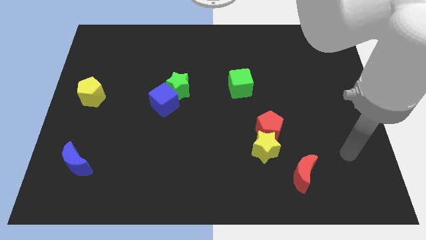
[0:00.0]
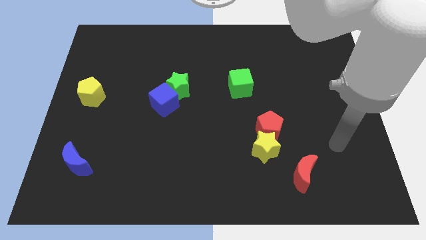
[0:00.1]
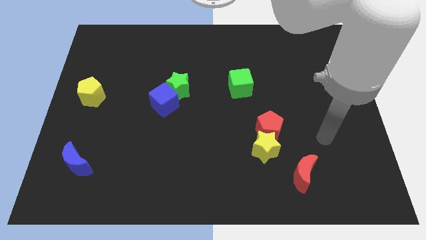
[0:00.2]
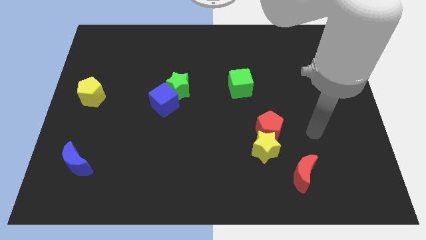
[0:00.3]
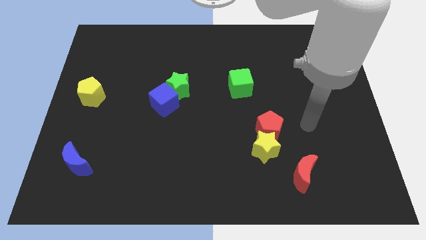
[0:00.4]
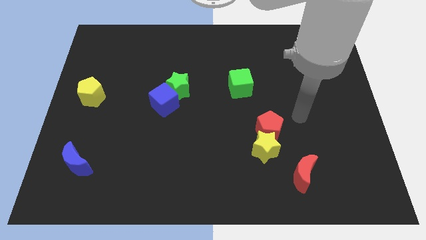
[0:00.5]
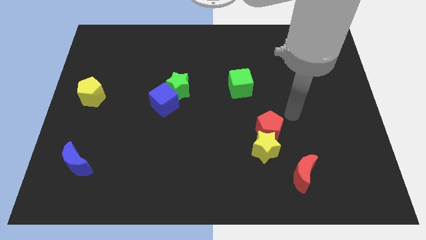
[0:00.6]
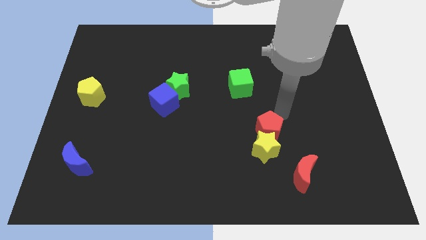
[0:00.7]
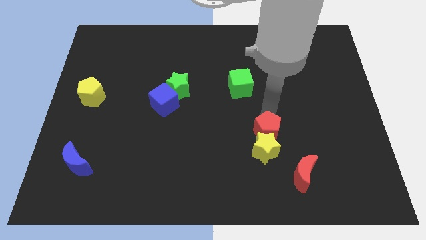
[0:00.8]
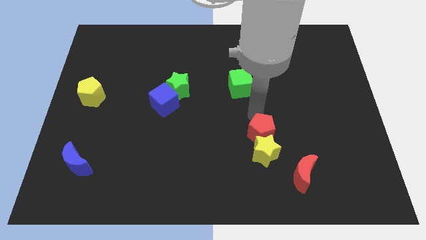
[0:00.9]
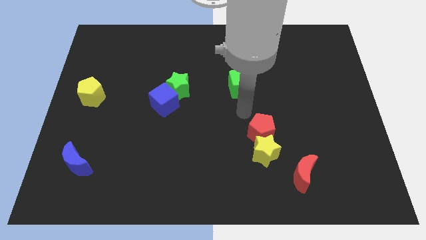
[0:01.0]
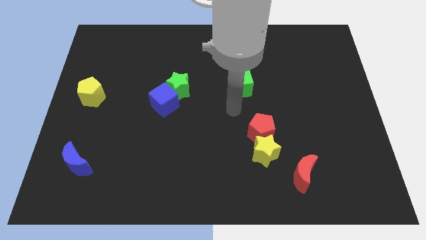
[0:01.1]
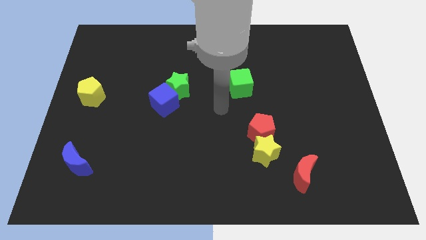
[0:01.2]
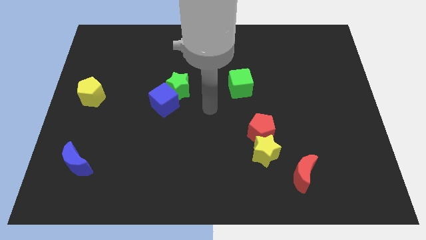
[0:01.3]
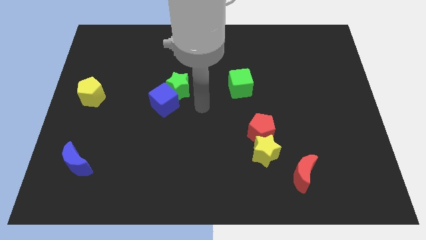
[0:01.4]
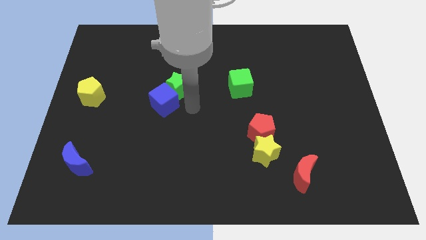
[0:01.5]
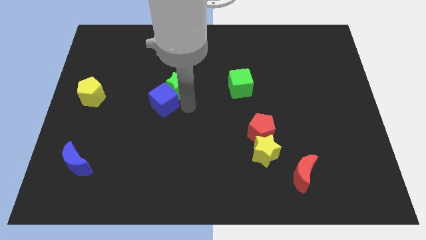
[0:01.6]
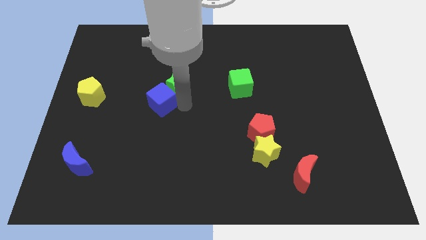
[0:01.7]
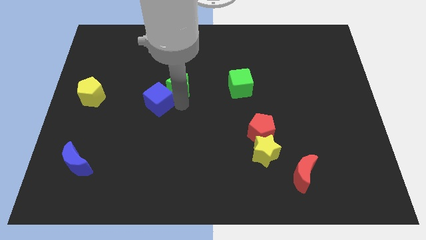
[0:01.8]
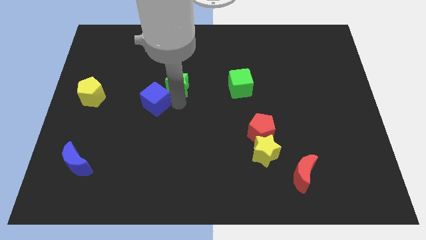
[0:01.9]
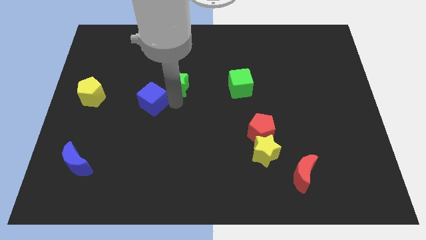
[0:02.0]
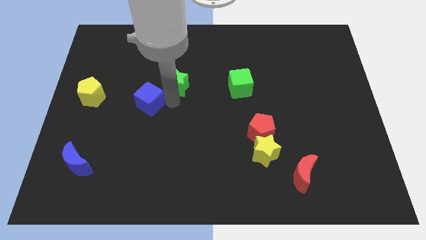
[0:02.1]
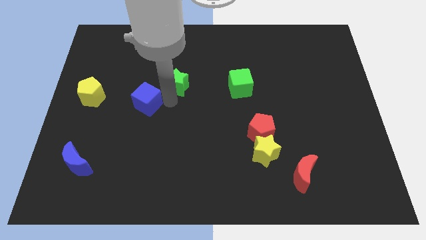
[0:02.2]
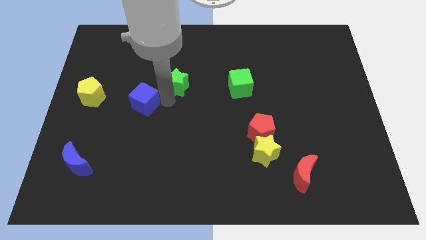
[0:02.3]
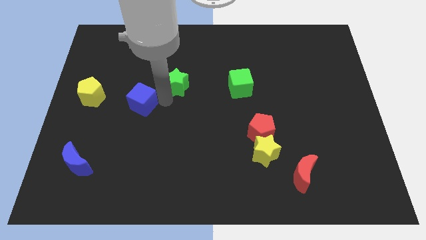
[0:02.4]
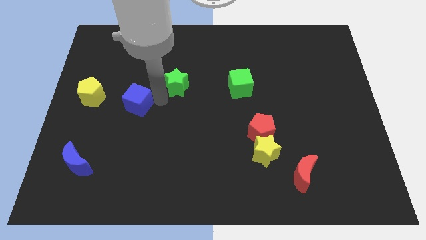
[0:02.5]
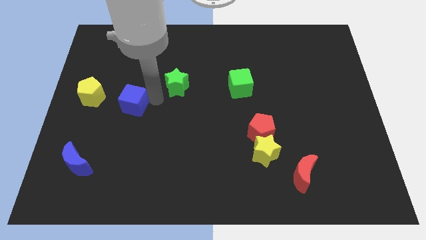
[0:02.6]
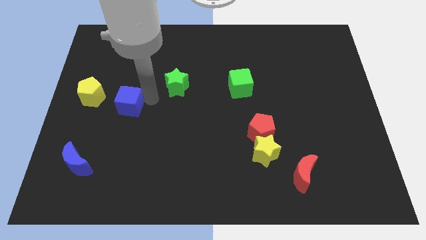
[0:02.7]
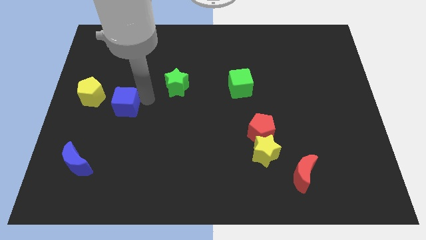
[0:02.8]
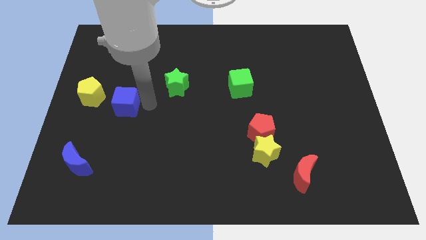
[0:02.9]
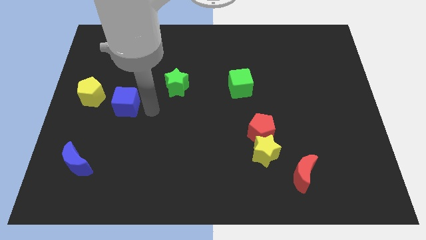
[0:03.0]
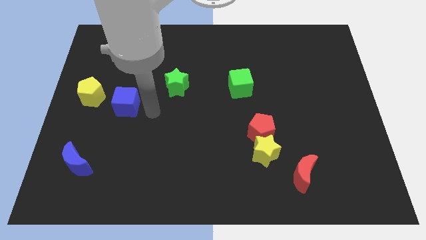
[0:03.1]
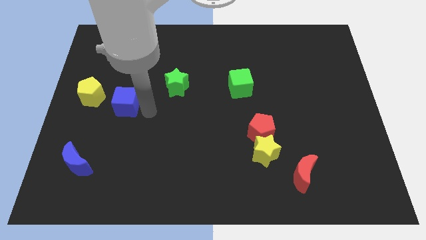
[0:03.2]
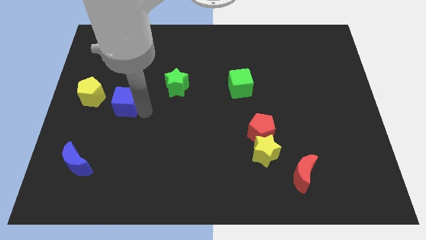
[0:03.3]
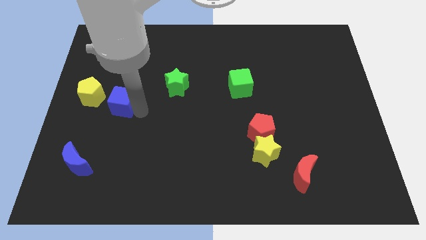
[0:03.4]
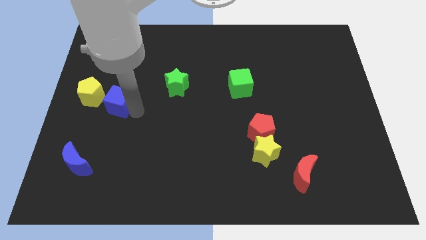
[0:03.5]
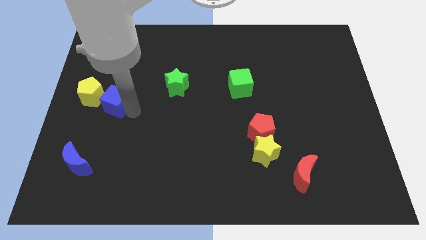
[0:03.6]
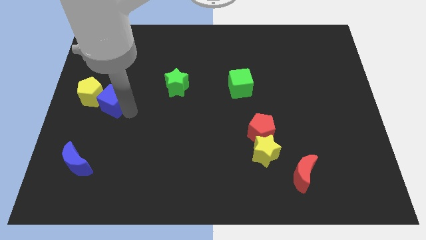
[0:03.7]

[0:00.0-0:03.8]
put the blue cube to the yellow pentagon

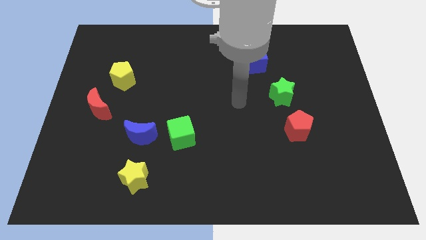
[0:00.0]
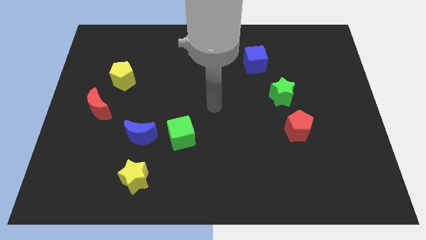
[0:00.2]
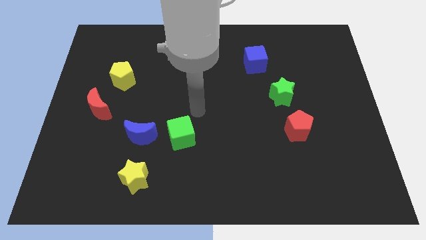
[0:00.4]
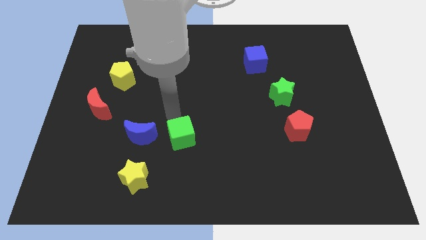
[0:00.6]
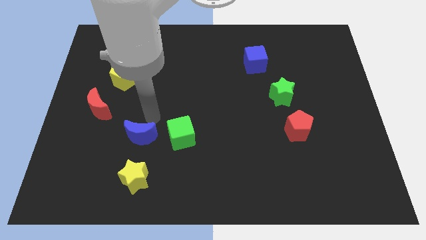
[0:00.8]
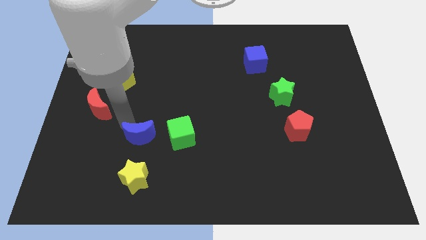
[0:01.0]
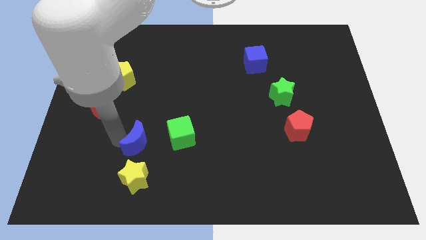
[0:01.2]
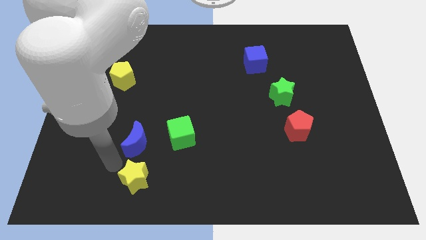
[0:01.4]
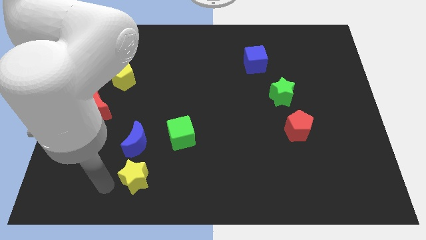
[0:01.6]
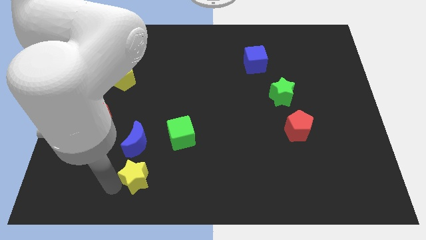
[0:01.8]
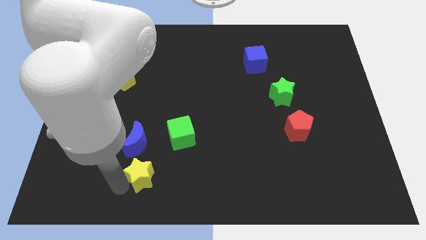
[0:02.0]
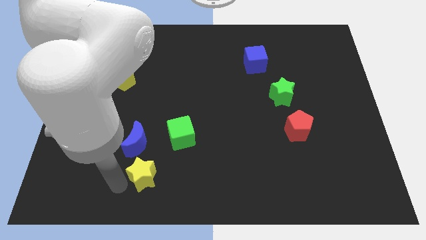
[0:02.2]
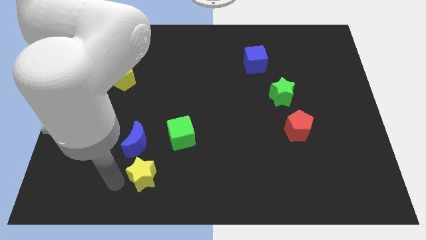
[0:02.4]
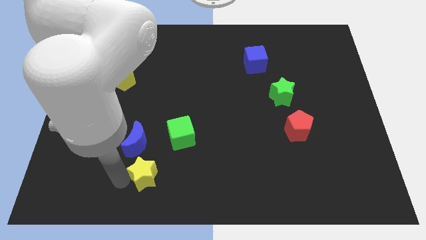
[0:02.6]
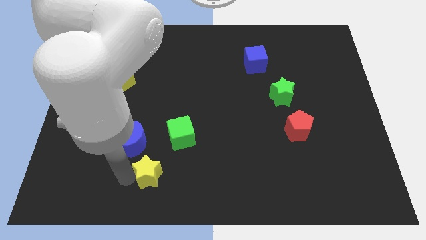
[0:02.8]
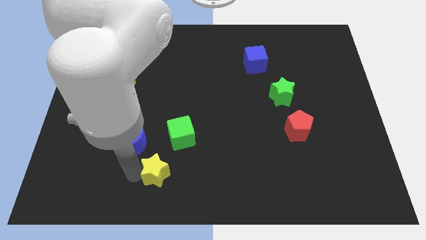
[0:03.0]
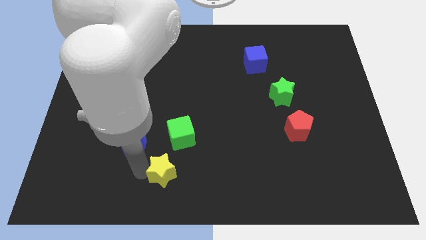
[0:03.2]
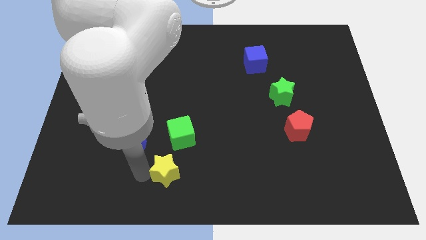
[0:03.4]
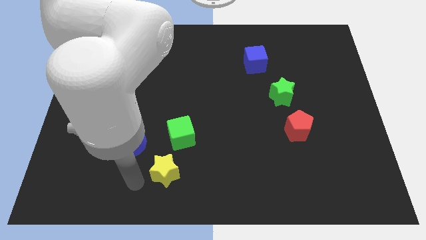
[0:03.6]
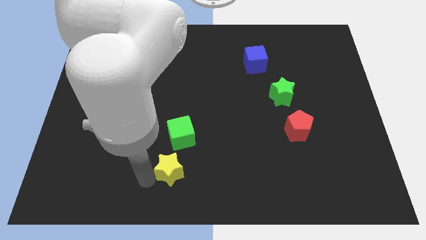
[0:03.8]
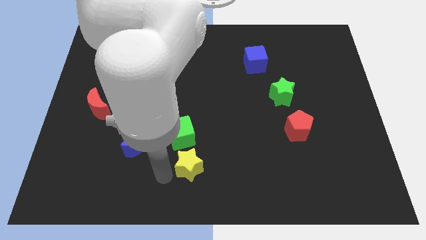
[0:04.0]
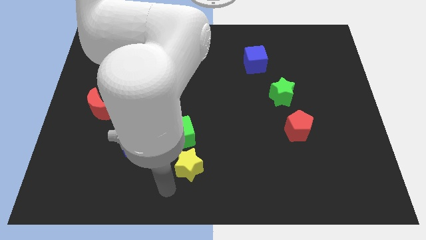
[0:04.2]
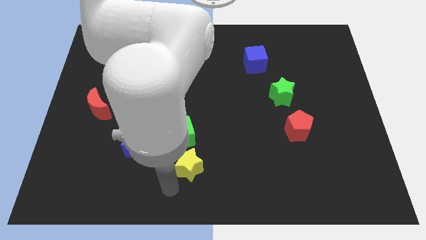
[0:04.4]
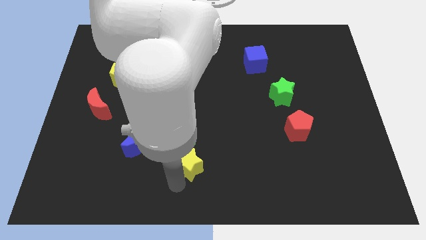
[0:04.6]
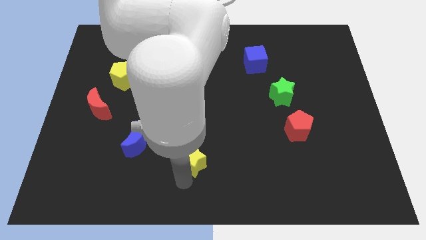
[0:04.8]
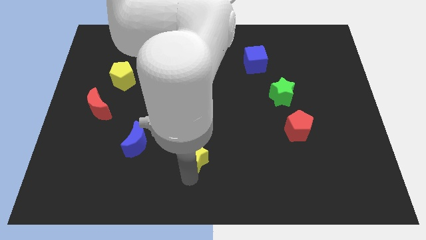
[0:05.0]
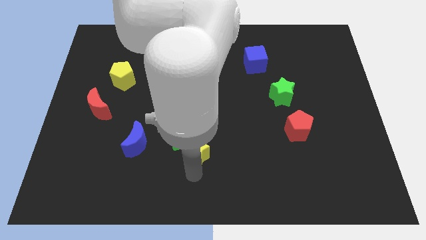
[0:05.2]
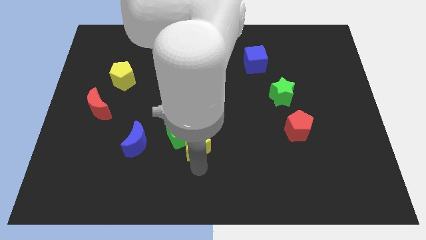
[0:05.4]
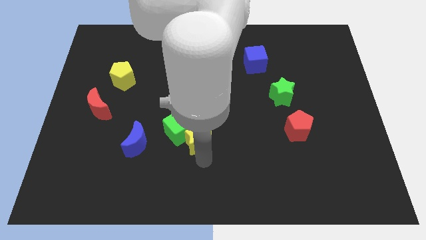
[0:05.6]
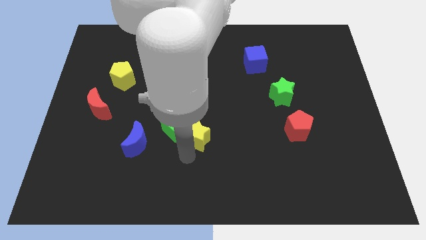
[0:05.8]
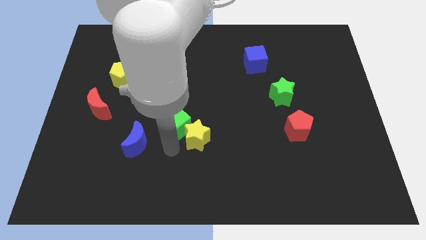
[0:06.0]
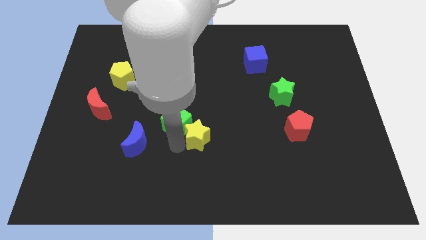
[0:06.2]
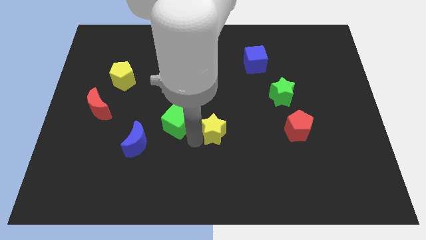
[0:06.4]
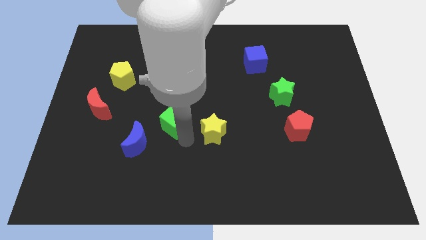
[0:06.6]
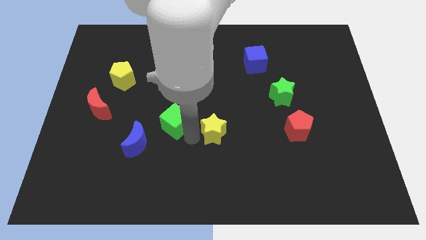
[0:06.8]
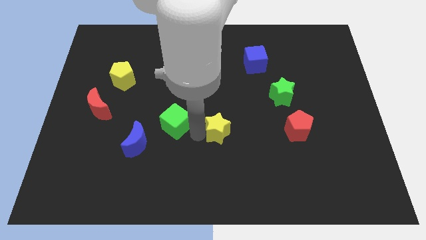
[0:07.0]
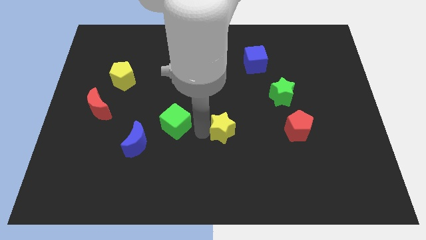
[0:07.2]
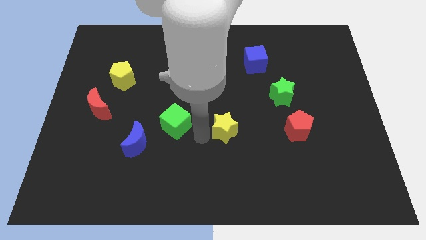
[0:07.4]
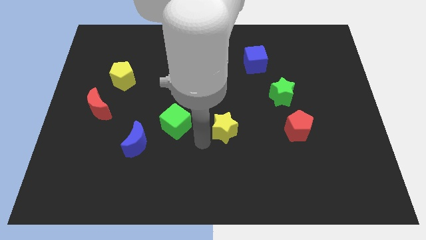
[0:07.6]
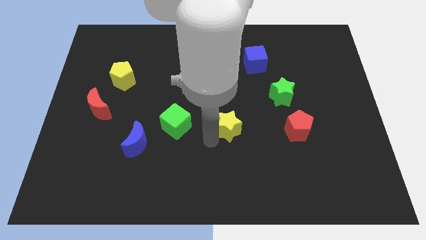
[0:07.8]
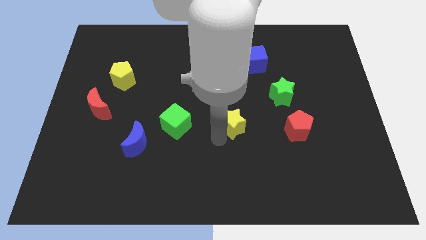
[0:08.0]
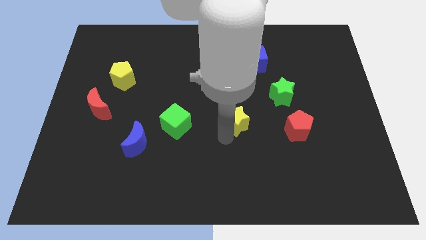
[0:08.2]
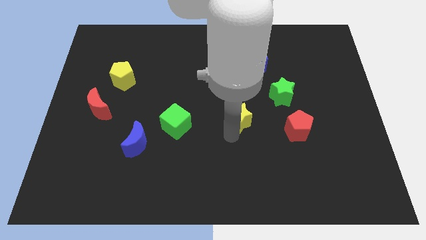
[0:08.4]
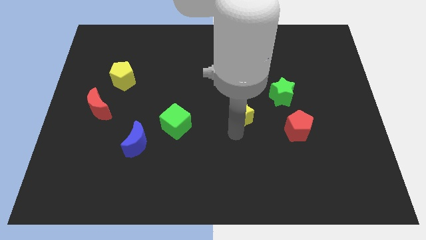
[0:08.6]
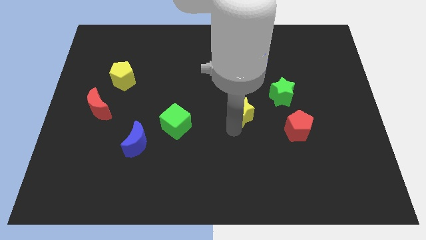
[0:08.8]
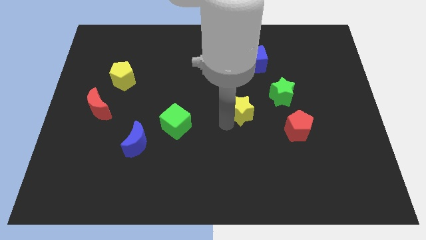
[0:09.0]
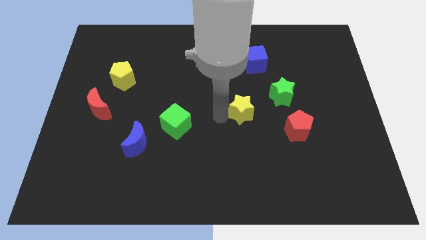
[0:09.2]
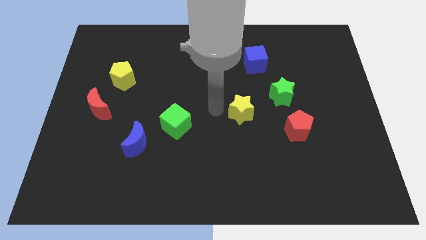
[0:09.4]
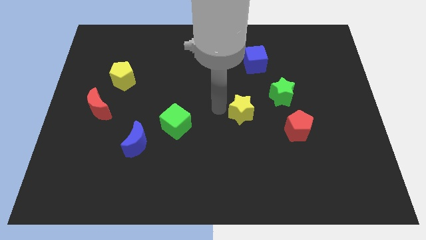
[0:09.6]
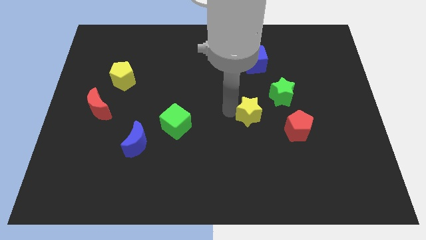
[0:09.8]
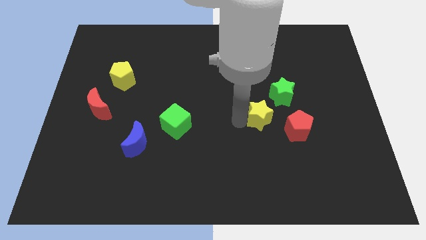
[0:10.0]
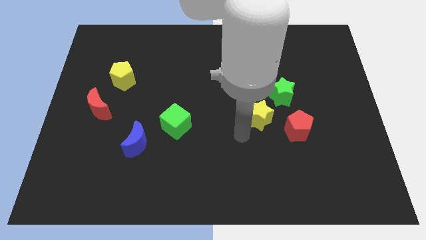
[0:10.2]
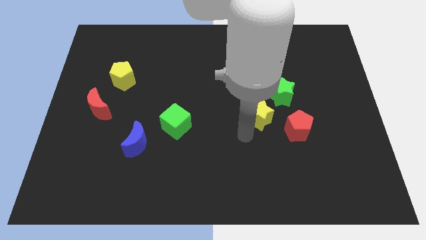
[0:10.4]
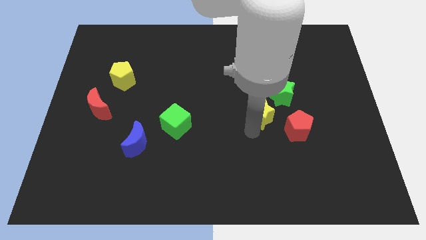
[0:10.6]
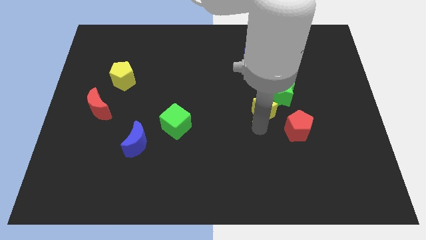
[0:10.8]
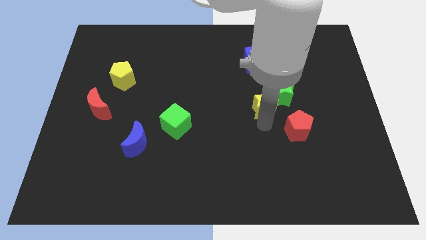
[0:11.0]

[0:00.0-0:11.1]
put the yellow star close to the green star
